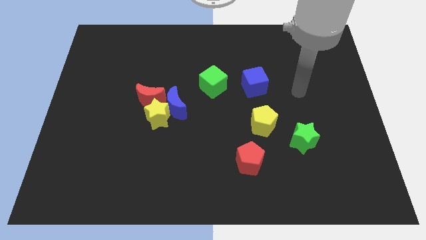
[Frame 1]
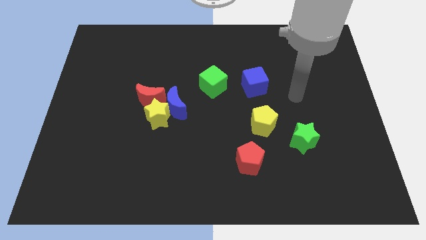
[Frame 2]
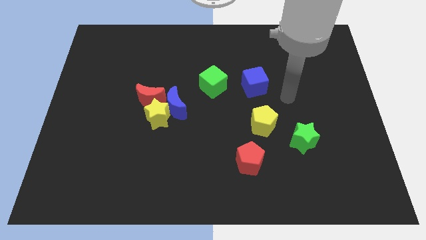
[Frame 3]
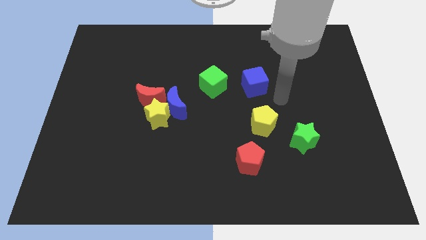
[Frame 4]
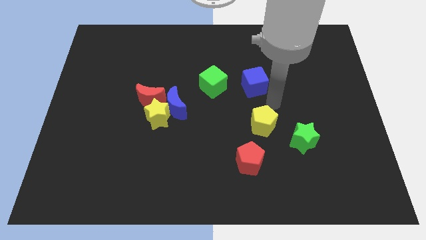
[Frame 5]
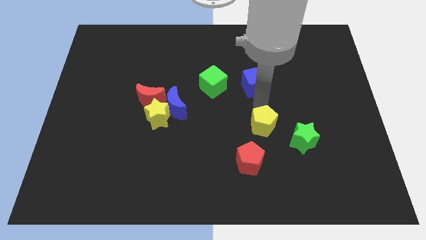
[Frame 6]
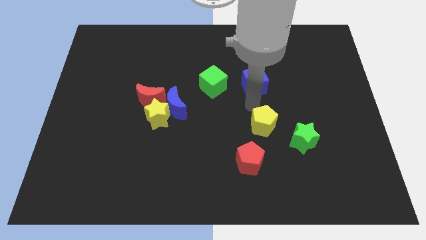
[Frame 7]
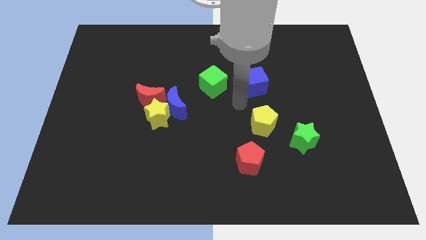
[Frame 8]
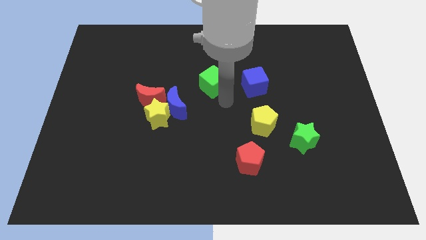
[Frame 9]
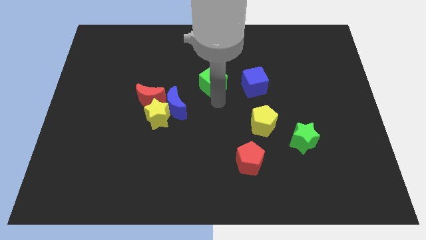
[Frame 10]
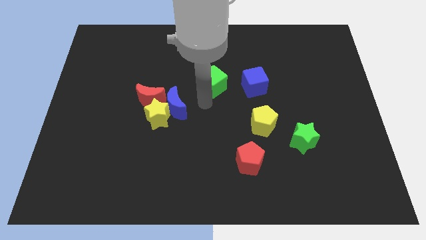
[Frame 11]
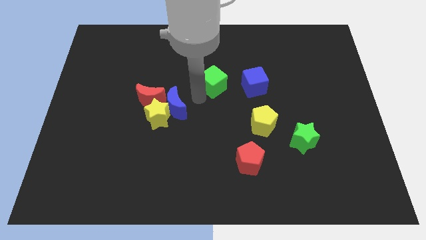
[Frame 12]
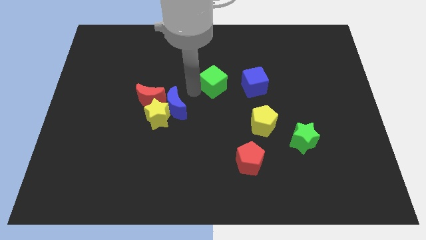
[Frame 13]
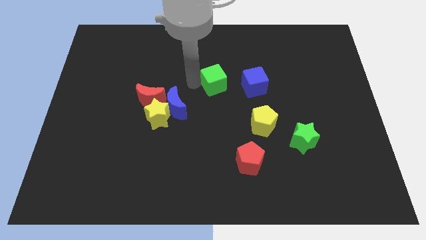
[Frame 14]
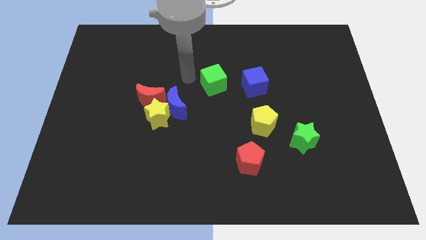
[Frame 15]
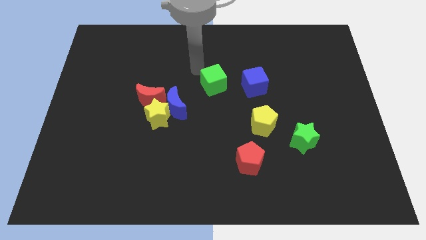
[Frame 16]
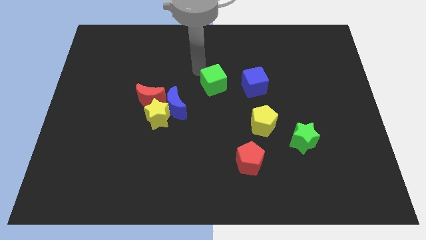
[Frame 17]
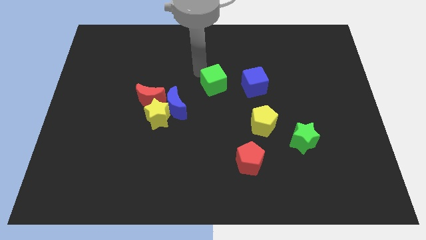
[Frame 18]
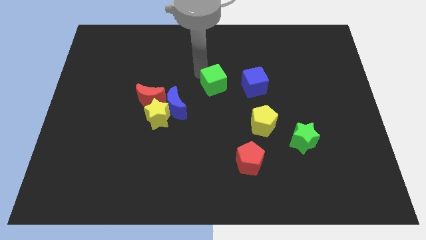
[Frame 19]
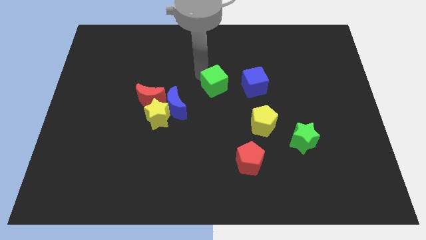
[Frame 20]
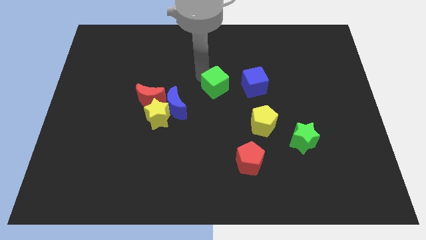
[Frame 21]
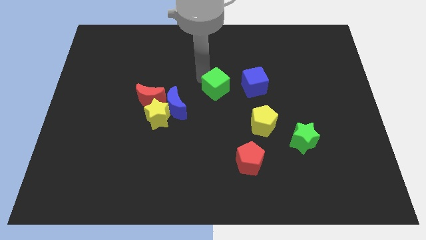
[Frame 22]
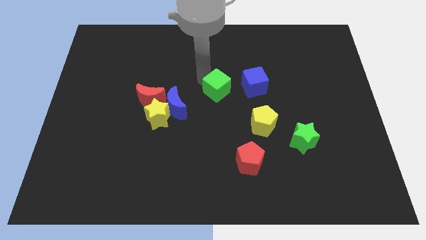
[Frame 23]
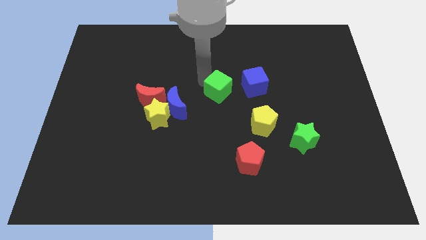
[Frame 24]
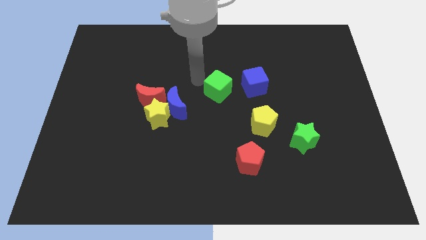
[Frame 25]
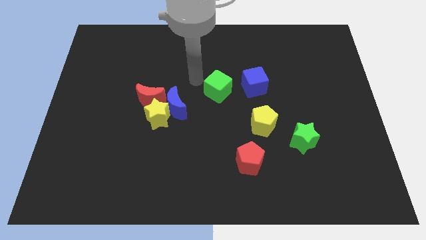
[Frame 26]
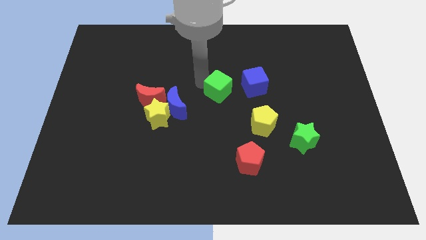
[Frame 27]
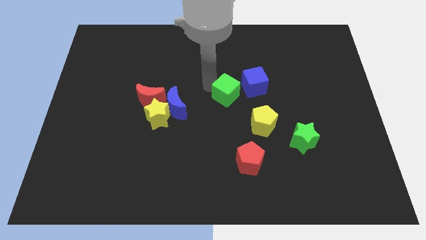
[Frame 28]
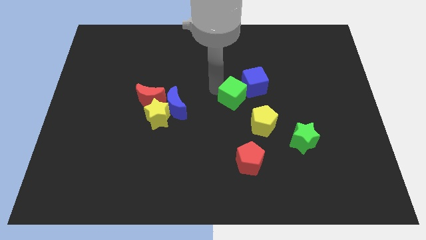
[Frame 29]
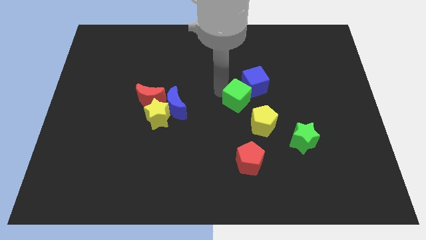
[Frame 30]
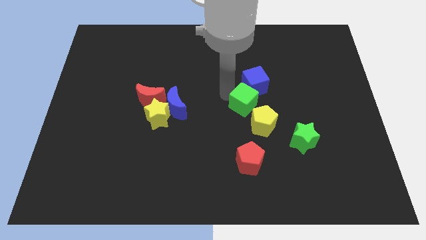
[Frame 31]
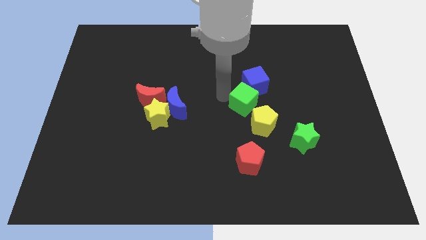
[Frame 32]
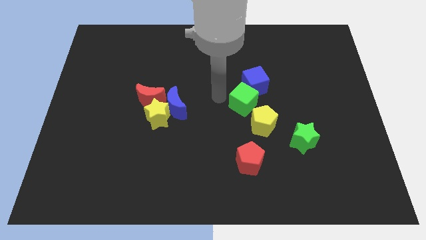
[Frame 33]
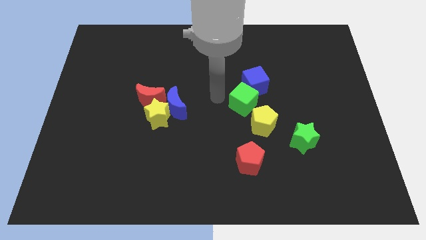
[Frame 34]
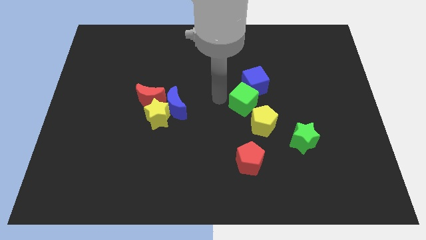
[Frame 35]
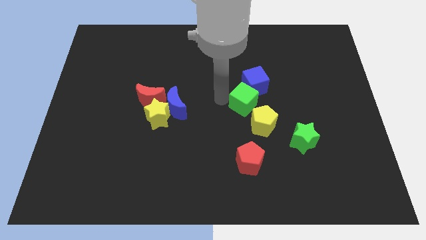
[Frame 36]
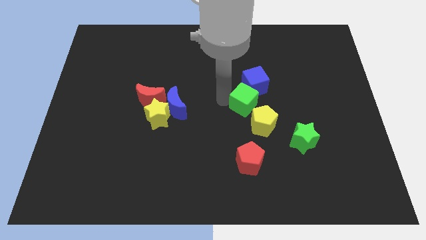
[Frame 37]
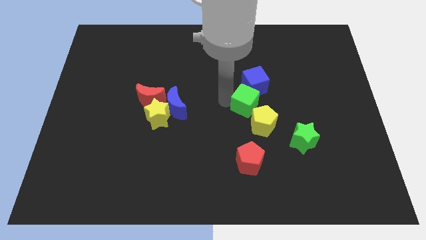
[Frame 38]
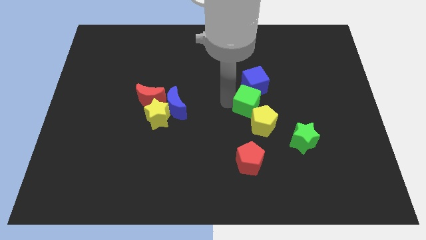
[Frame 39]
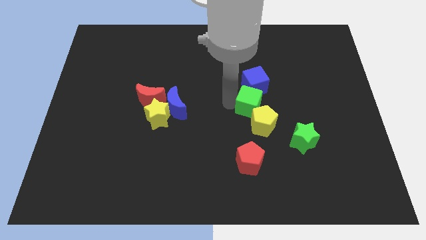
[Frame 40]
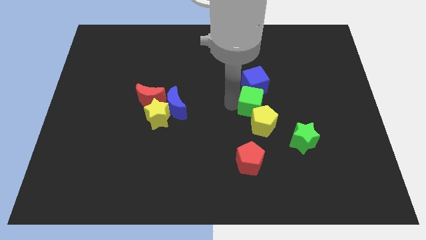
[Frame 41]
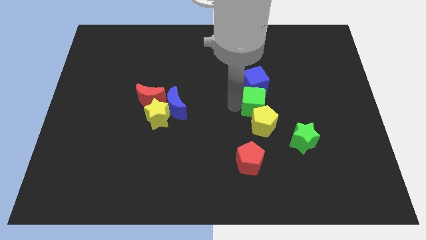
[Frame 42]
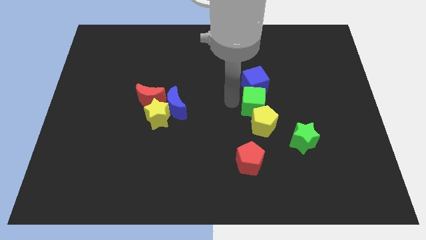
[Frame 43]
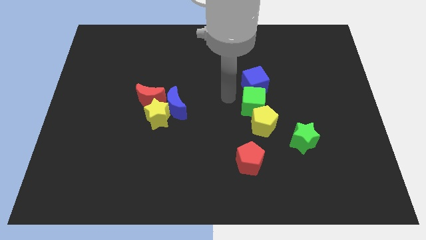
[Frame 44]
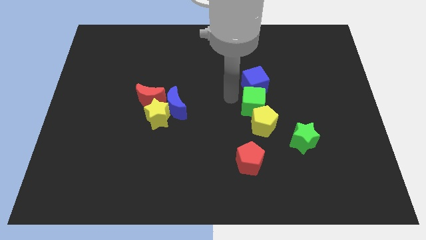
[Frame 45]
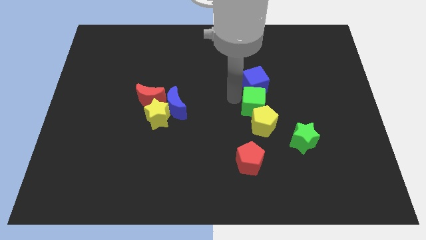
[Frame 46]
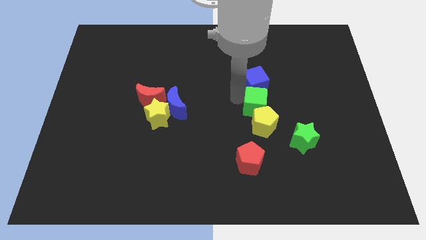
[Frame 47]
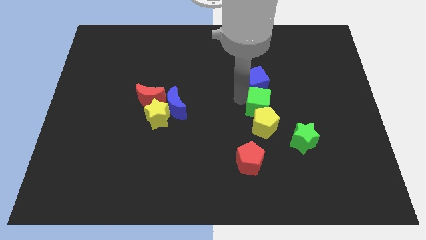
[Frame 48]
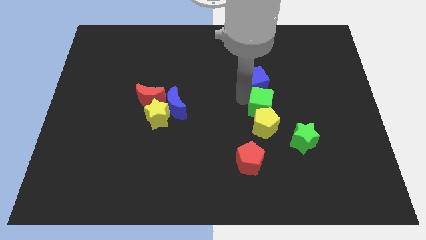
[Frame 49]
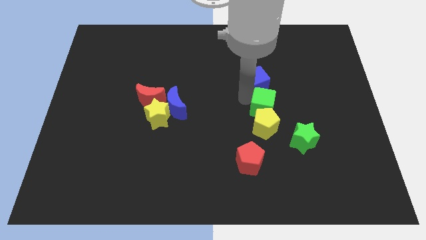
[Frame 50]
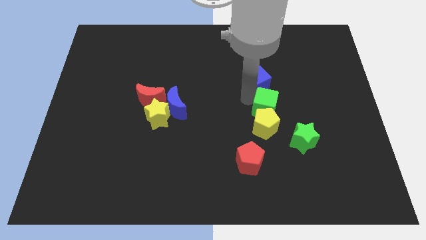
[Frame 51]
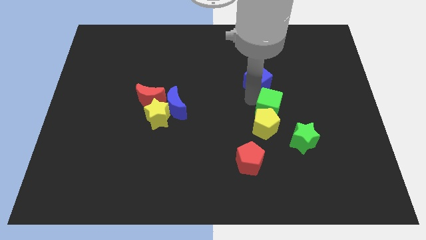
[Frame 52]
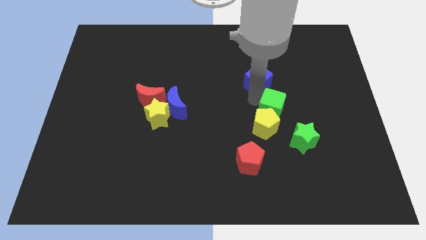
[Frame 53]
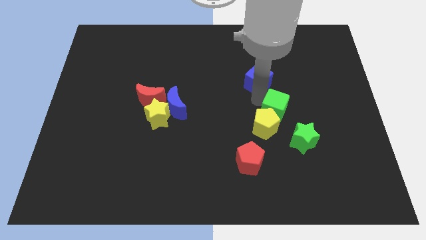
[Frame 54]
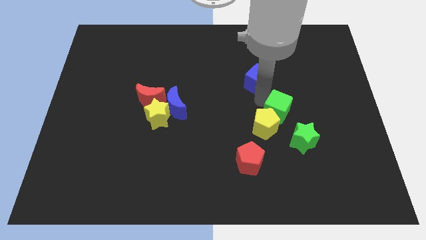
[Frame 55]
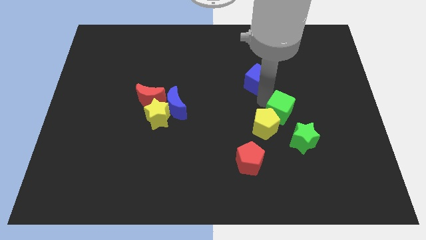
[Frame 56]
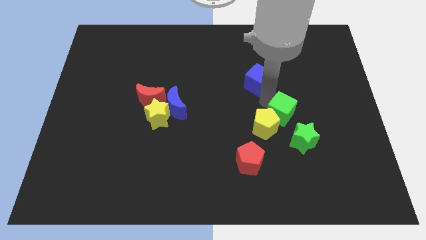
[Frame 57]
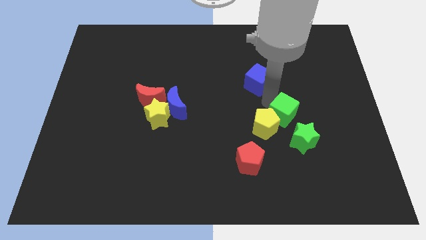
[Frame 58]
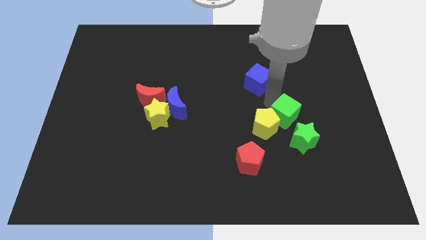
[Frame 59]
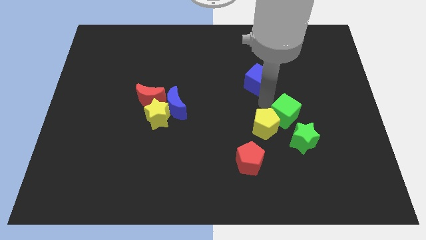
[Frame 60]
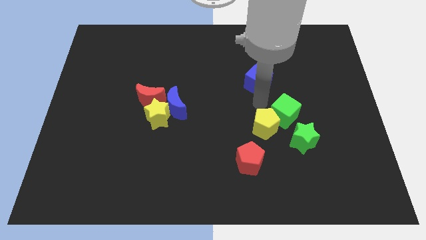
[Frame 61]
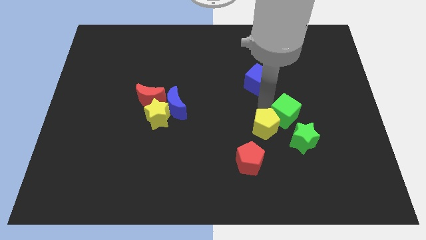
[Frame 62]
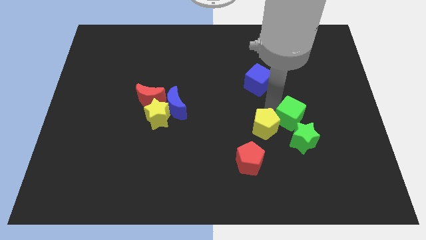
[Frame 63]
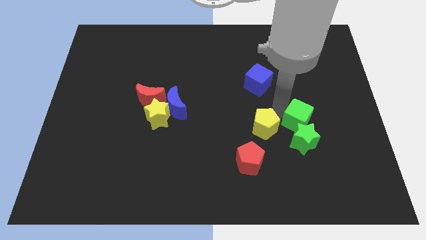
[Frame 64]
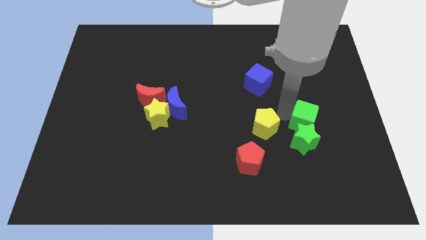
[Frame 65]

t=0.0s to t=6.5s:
move the green cube down and to the right diagonally

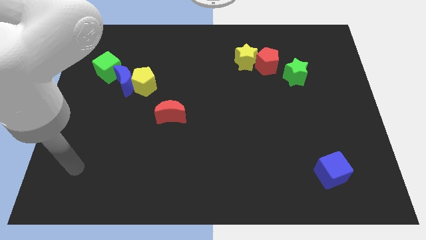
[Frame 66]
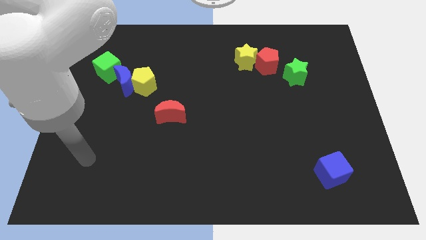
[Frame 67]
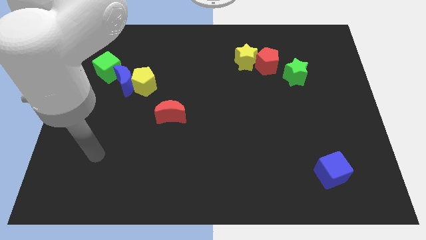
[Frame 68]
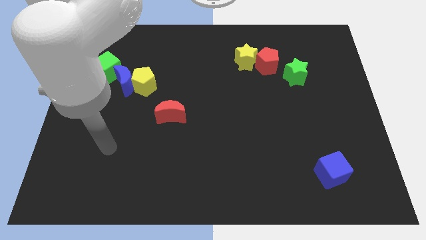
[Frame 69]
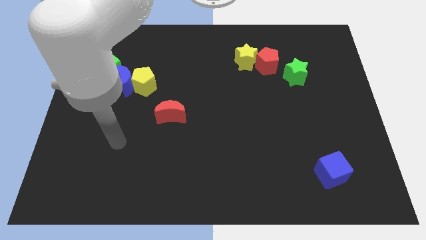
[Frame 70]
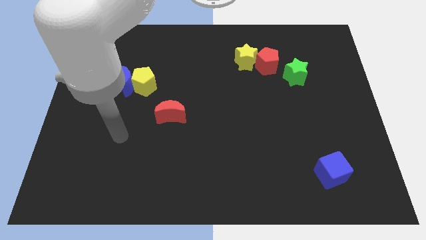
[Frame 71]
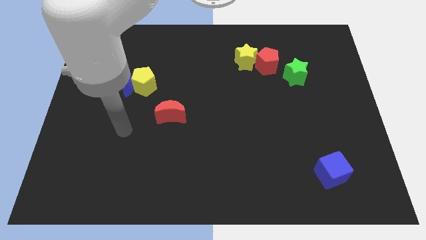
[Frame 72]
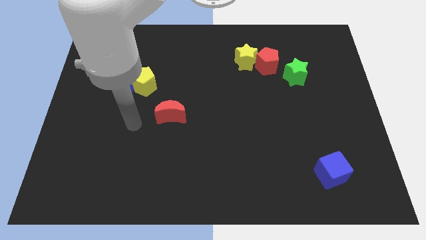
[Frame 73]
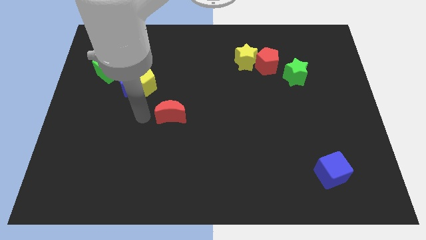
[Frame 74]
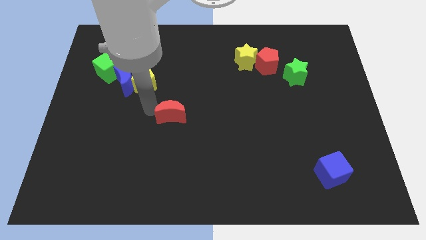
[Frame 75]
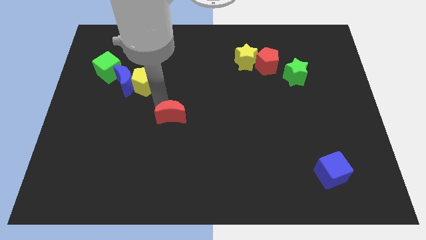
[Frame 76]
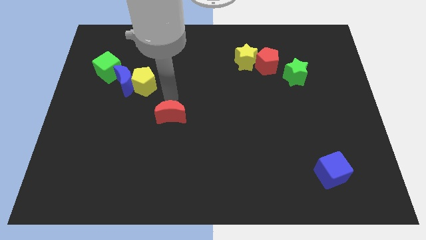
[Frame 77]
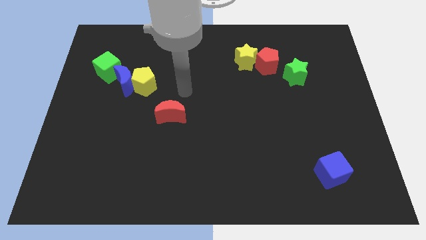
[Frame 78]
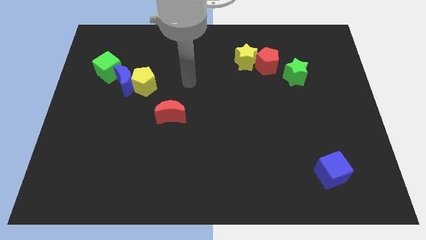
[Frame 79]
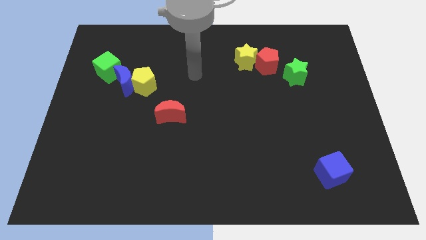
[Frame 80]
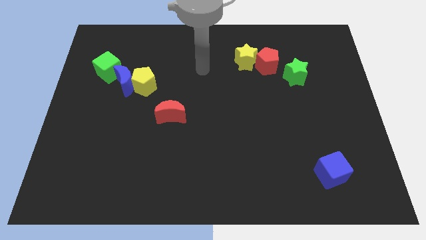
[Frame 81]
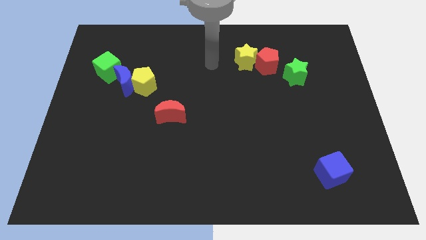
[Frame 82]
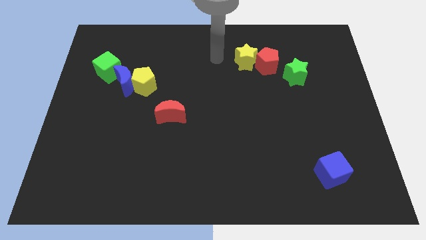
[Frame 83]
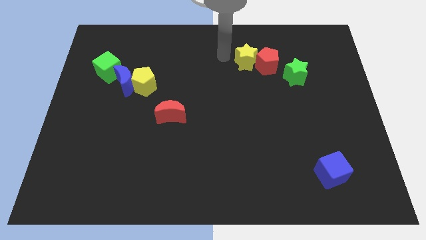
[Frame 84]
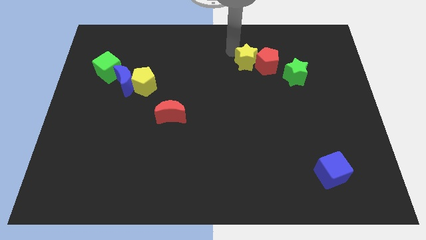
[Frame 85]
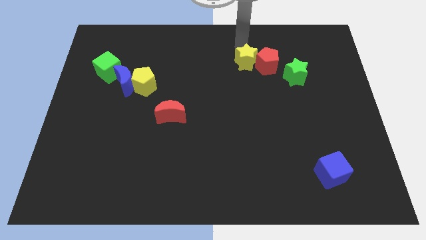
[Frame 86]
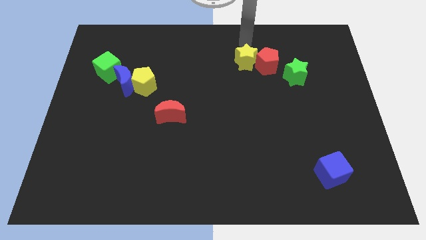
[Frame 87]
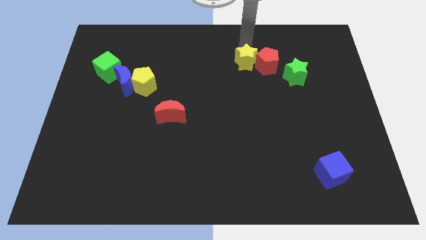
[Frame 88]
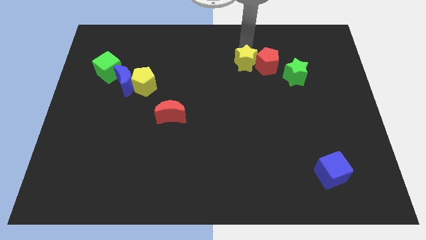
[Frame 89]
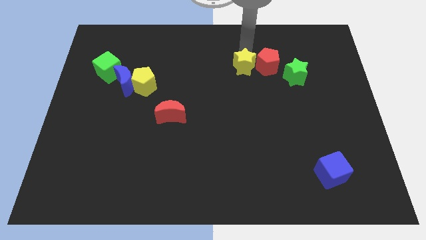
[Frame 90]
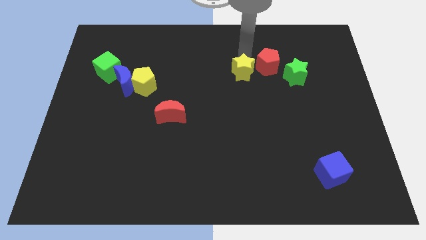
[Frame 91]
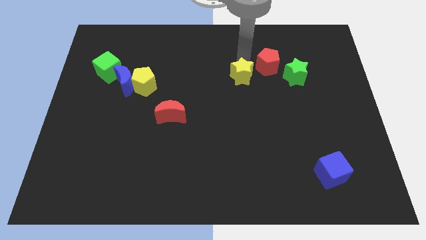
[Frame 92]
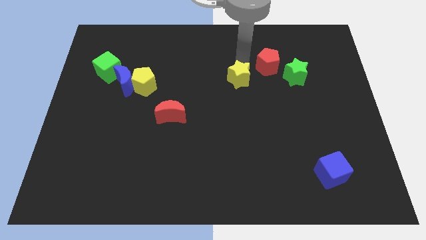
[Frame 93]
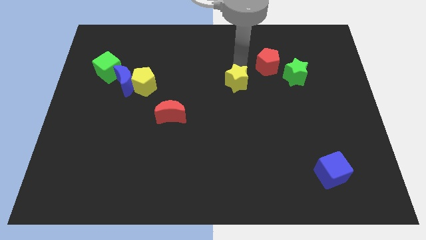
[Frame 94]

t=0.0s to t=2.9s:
slightly move the yellow star downwards
